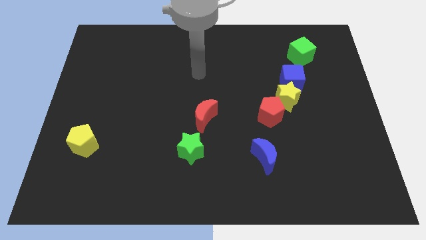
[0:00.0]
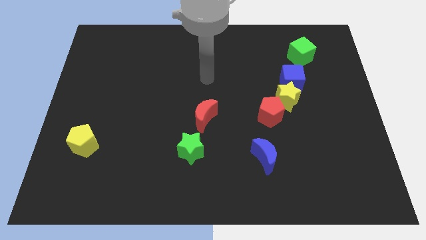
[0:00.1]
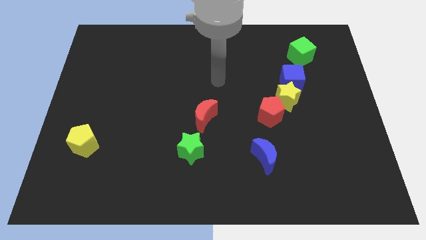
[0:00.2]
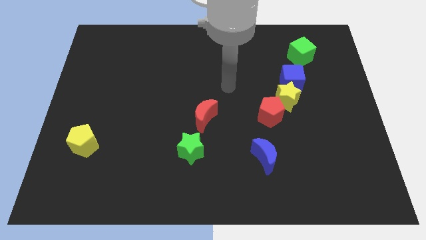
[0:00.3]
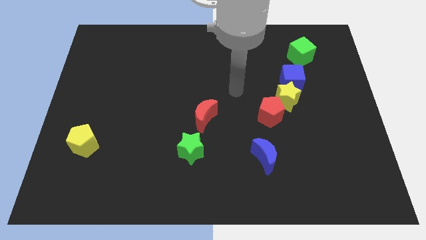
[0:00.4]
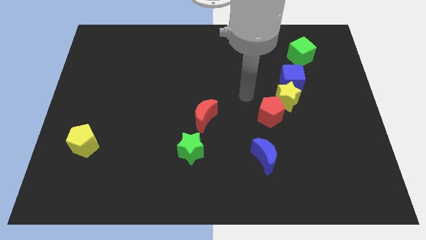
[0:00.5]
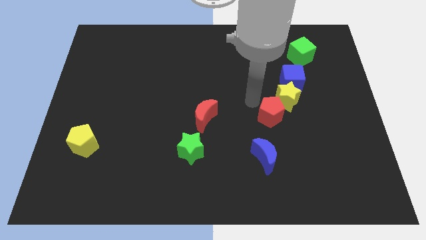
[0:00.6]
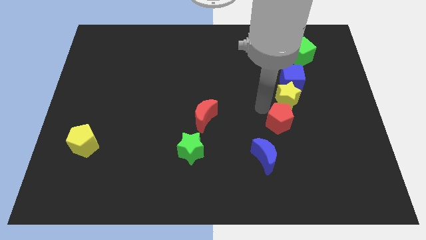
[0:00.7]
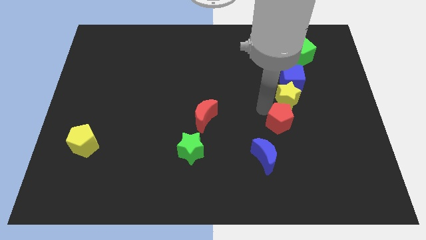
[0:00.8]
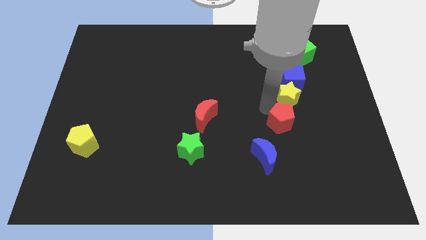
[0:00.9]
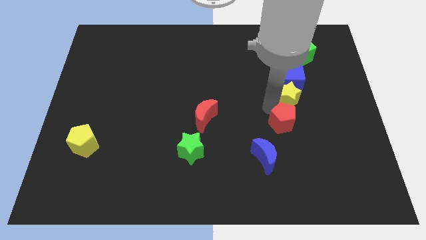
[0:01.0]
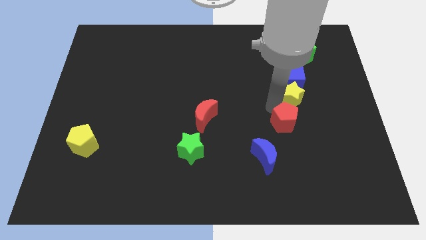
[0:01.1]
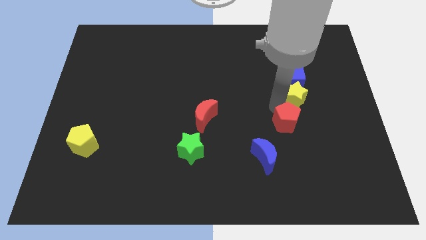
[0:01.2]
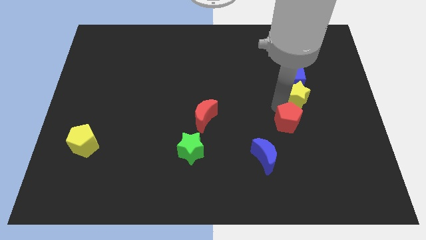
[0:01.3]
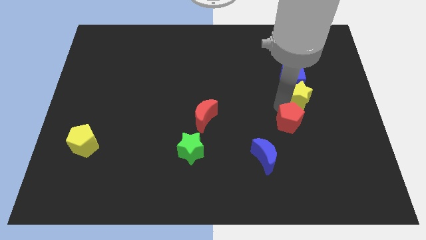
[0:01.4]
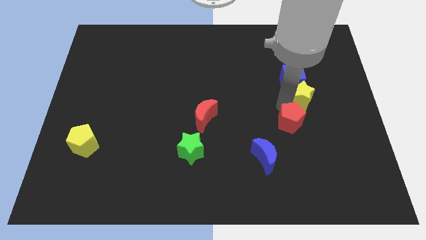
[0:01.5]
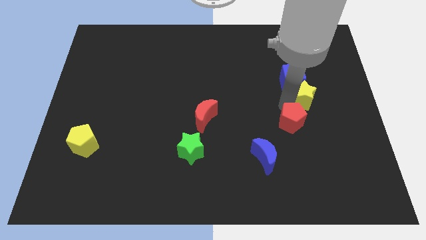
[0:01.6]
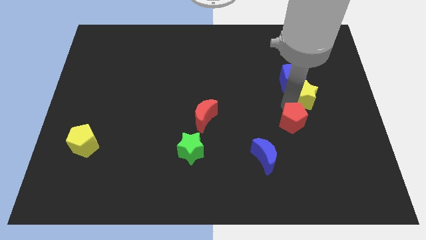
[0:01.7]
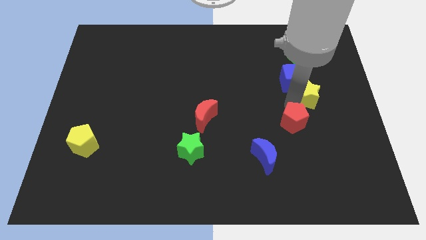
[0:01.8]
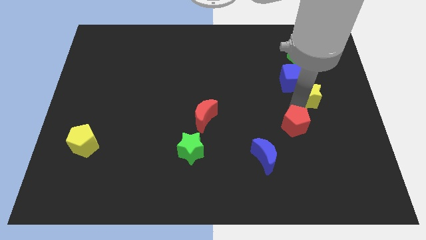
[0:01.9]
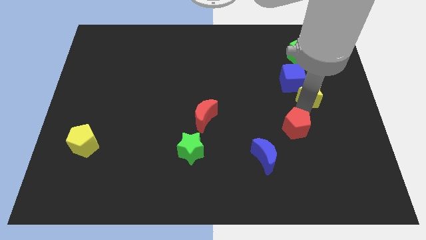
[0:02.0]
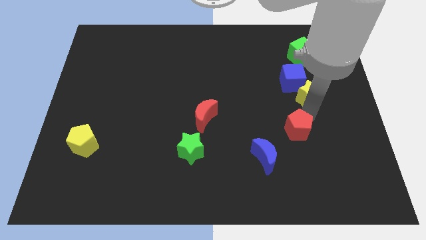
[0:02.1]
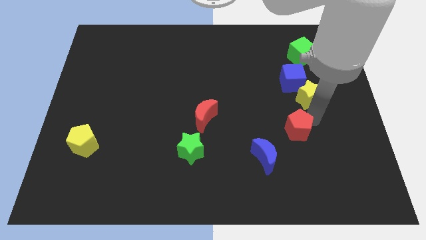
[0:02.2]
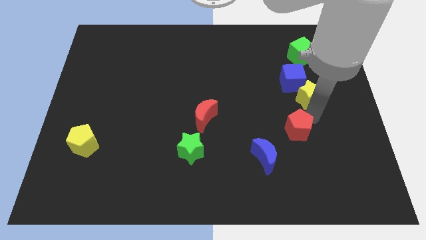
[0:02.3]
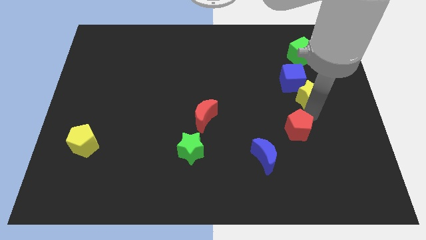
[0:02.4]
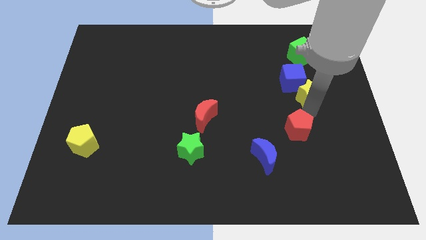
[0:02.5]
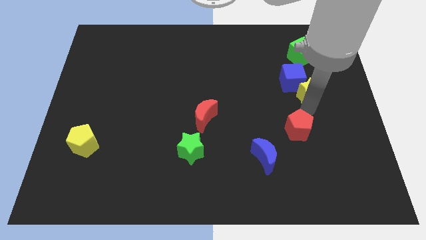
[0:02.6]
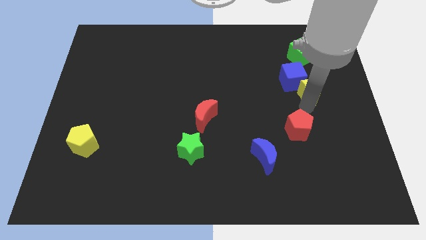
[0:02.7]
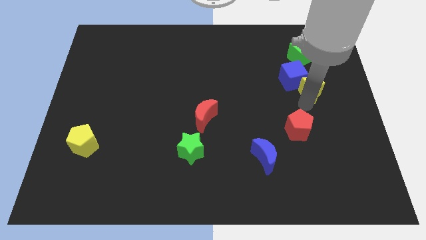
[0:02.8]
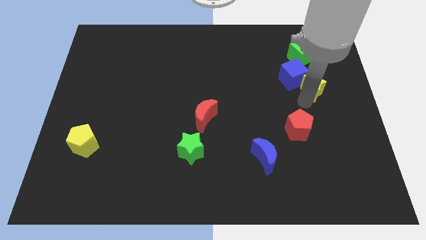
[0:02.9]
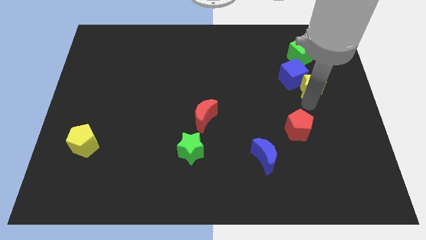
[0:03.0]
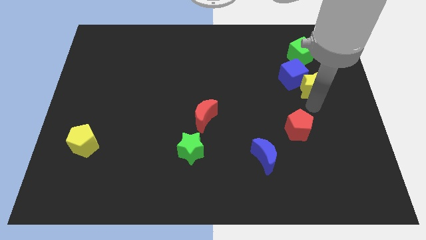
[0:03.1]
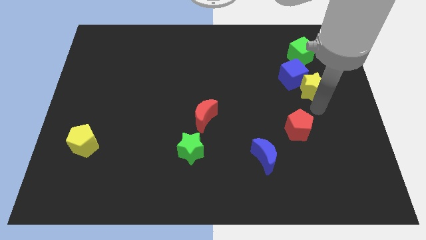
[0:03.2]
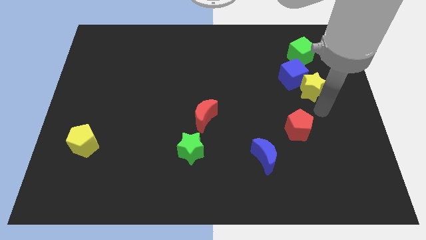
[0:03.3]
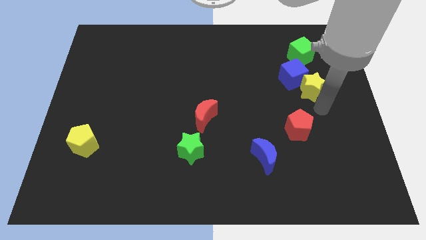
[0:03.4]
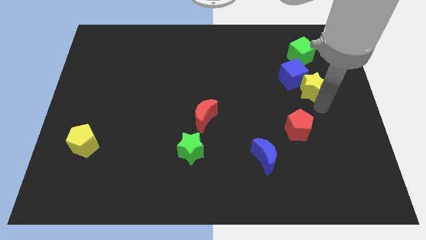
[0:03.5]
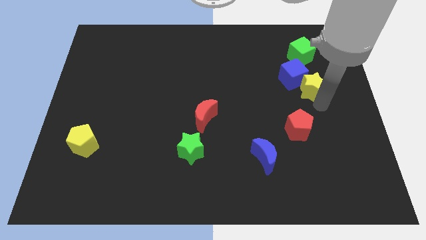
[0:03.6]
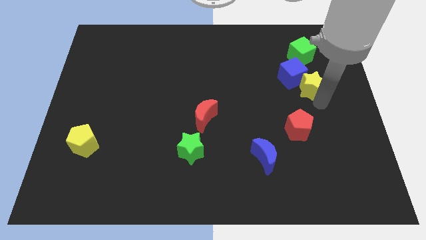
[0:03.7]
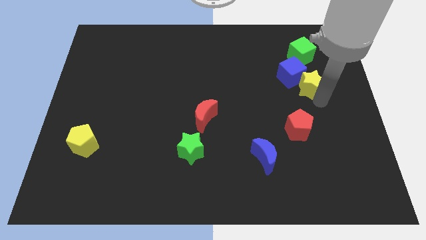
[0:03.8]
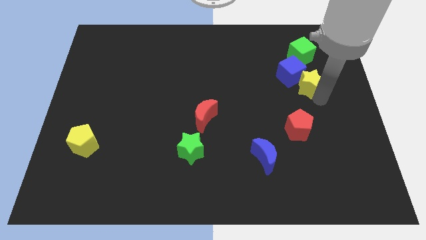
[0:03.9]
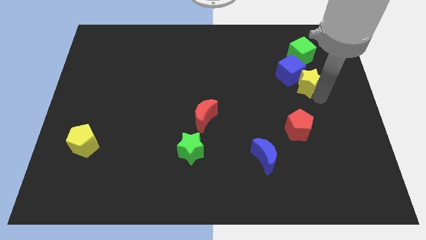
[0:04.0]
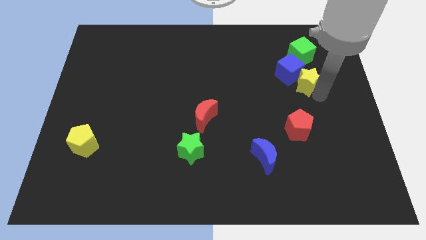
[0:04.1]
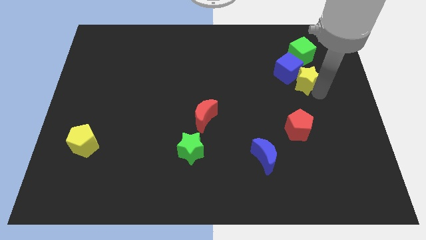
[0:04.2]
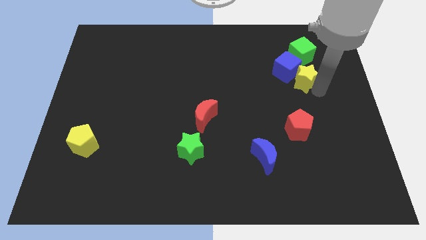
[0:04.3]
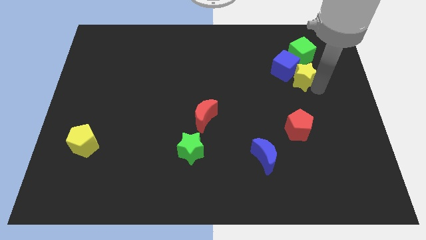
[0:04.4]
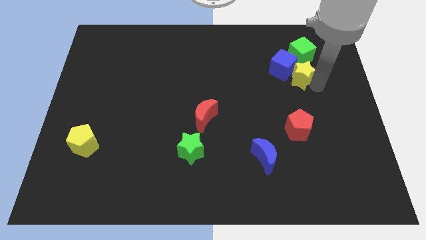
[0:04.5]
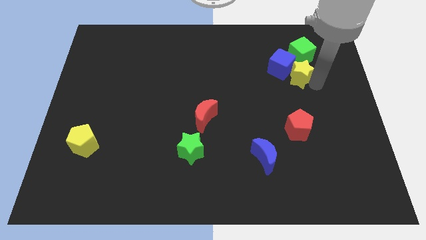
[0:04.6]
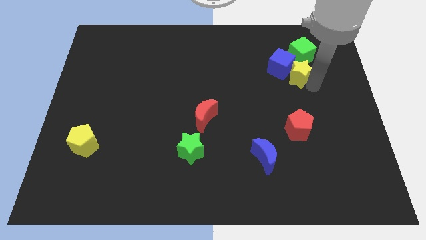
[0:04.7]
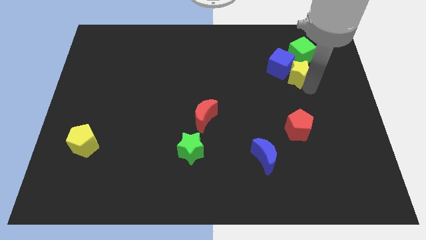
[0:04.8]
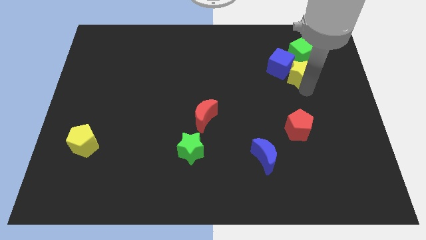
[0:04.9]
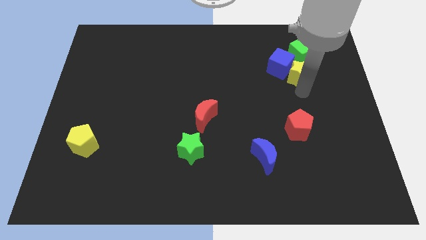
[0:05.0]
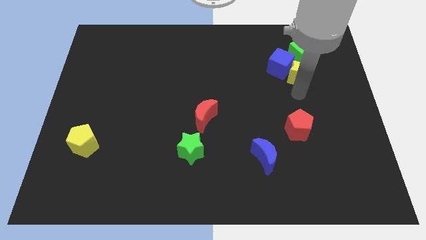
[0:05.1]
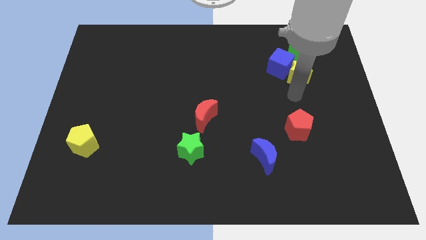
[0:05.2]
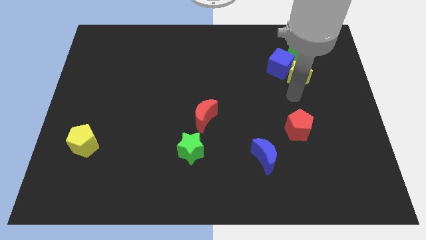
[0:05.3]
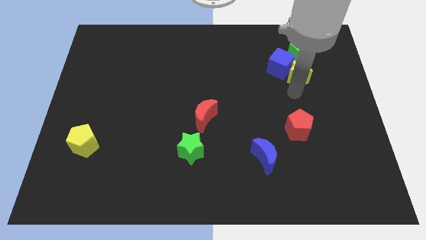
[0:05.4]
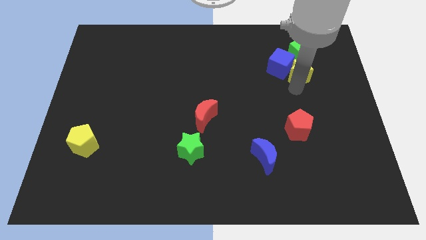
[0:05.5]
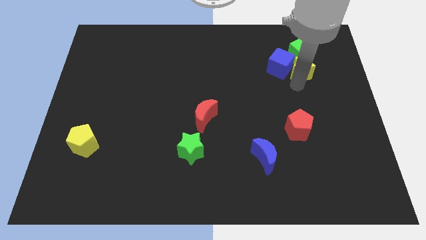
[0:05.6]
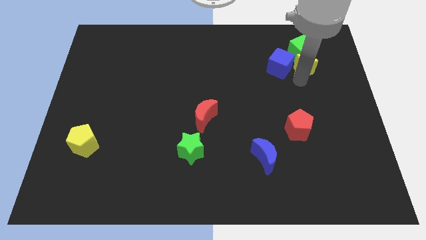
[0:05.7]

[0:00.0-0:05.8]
push the yellow star close to the green cube
